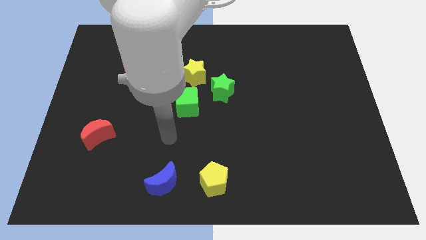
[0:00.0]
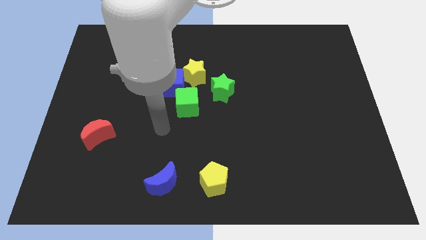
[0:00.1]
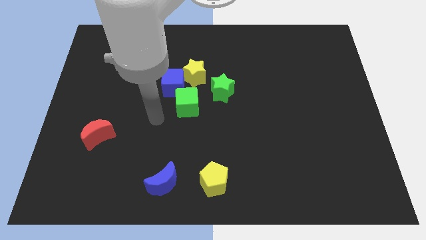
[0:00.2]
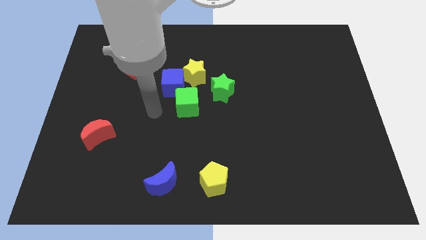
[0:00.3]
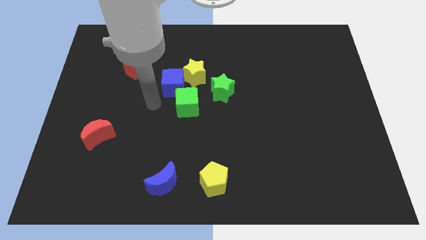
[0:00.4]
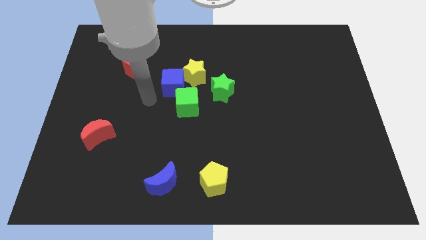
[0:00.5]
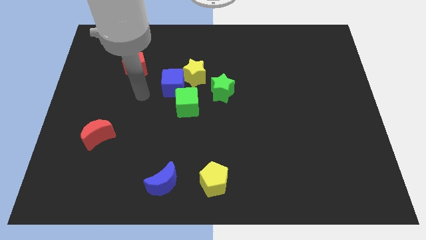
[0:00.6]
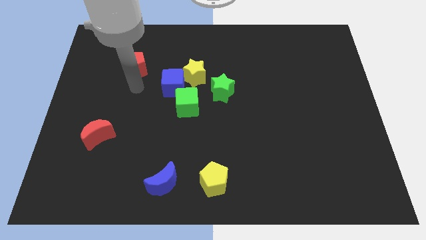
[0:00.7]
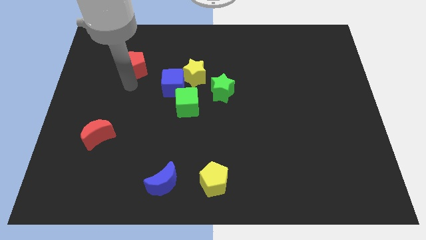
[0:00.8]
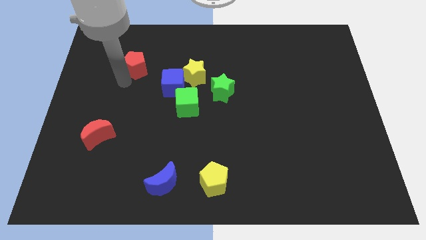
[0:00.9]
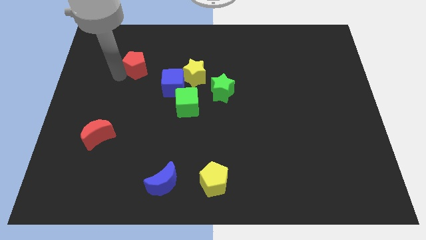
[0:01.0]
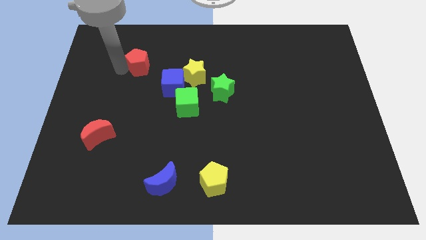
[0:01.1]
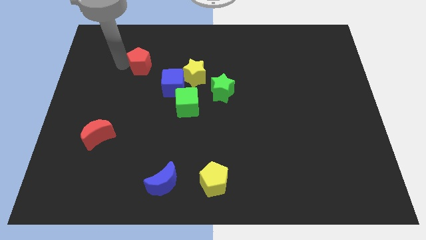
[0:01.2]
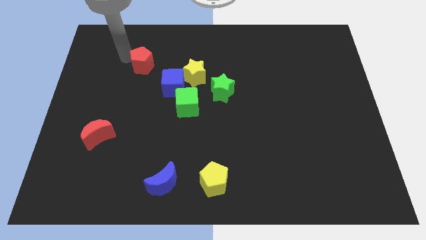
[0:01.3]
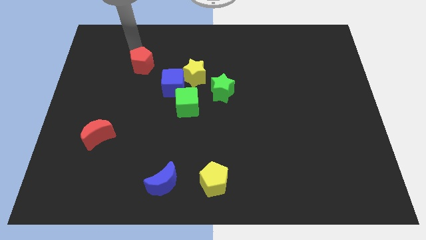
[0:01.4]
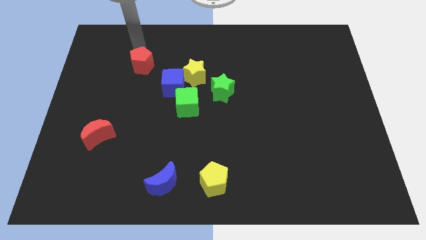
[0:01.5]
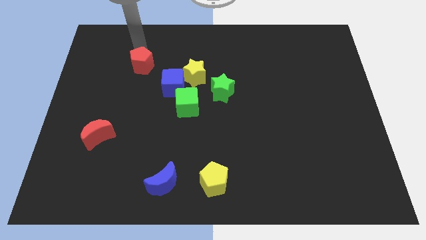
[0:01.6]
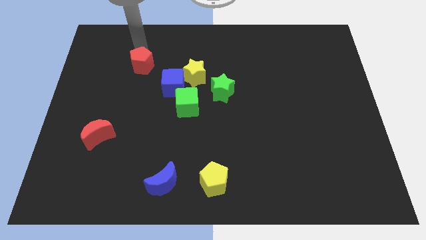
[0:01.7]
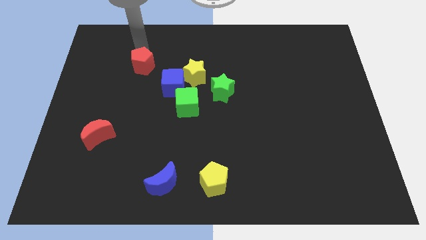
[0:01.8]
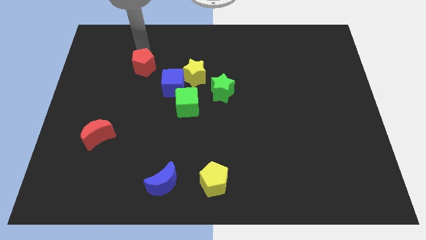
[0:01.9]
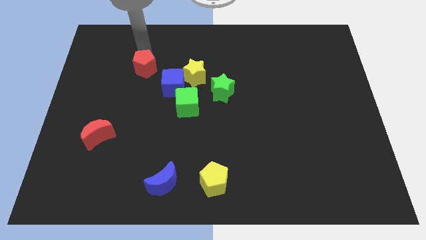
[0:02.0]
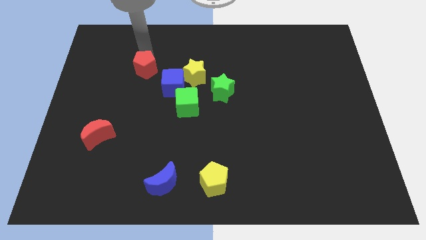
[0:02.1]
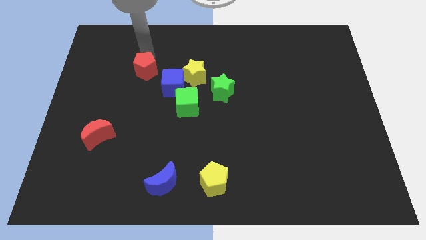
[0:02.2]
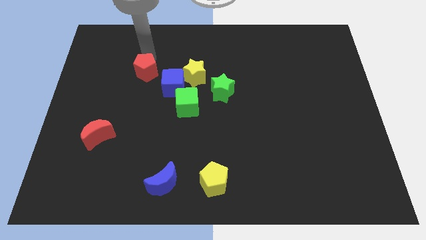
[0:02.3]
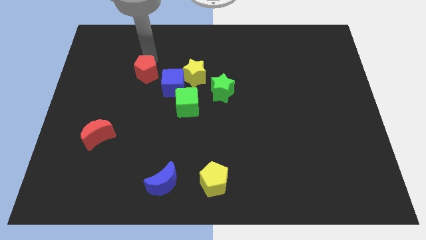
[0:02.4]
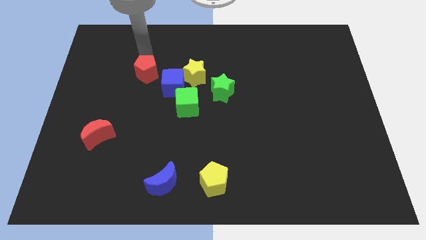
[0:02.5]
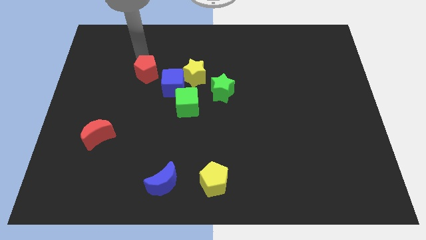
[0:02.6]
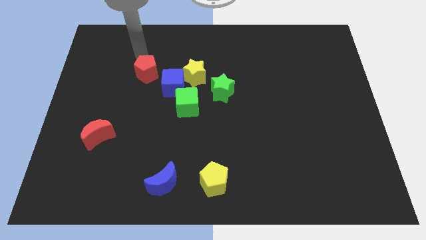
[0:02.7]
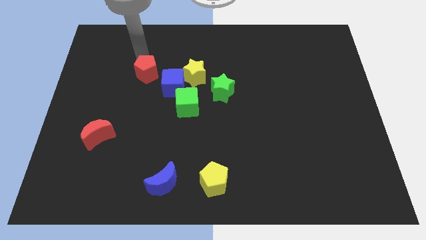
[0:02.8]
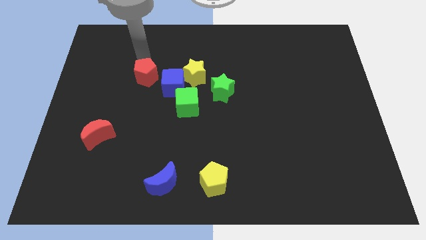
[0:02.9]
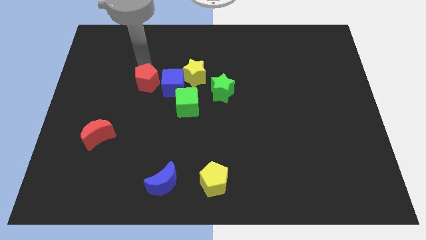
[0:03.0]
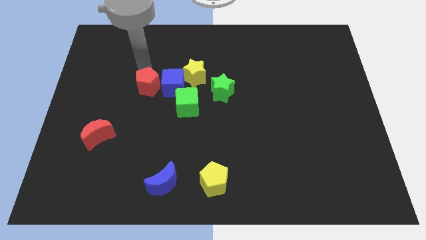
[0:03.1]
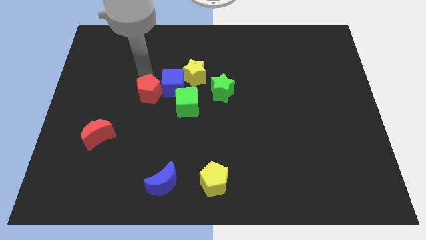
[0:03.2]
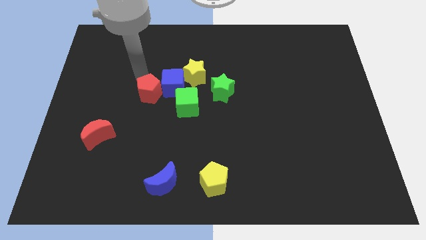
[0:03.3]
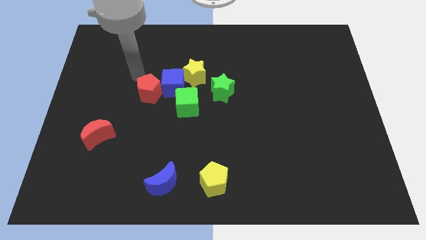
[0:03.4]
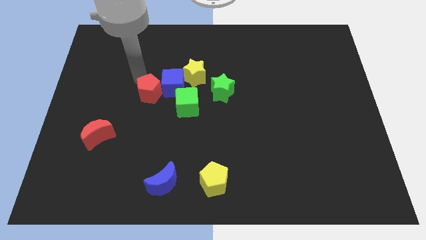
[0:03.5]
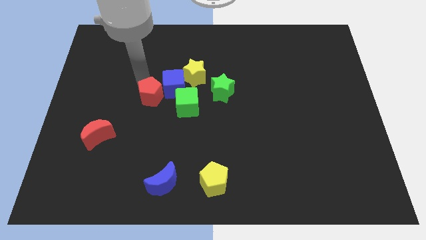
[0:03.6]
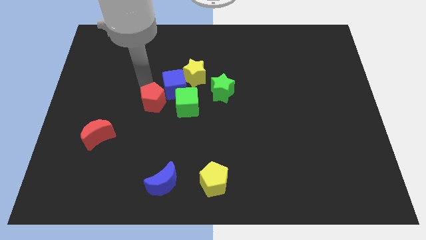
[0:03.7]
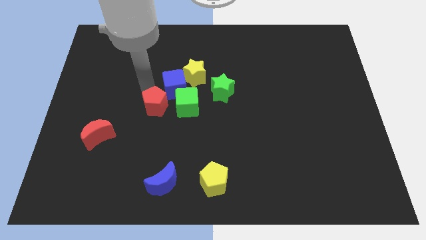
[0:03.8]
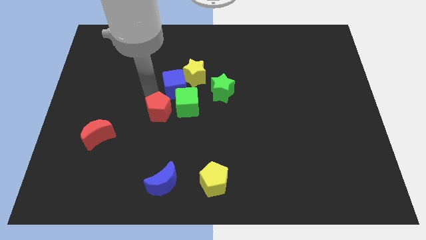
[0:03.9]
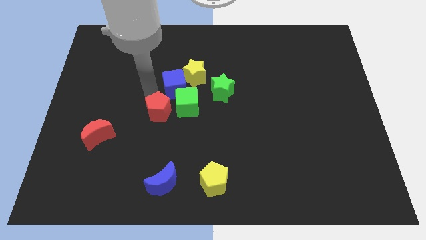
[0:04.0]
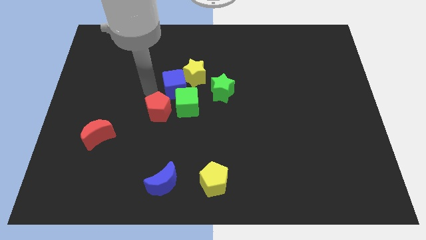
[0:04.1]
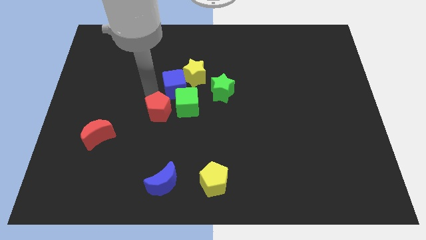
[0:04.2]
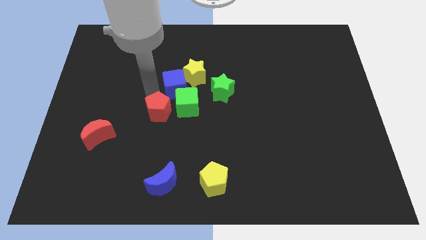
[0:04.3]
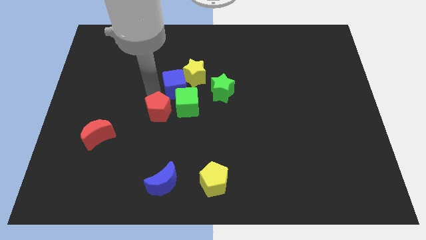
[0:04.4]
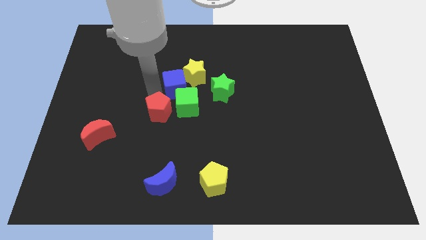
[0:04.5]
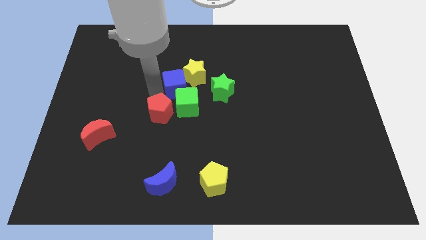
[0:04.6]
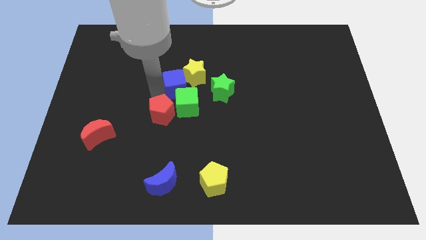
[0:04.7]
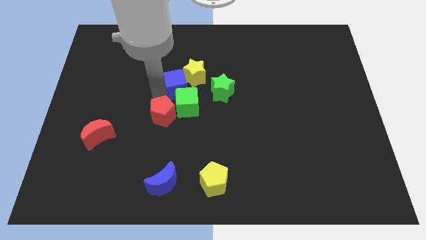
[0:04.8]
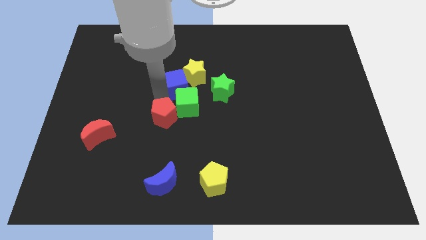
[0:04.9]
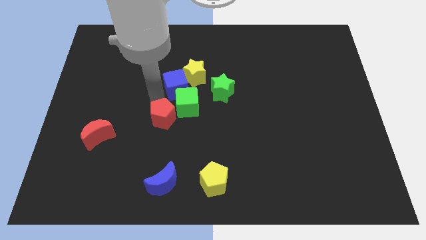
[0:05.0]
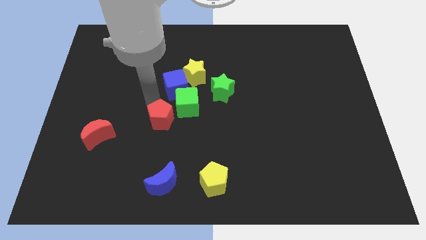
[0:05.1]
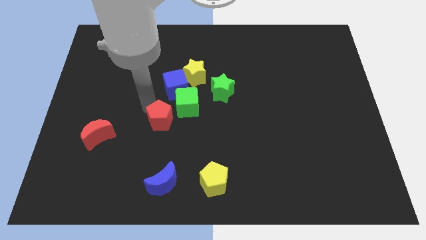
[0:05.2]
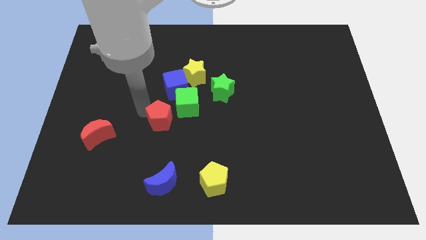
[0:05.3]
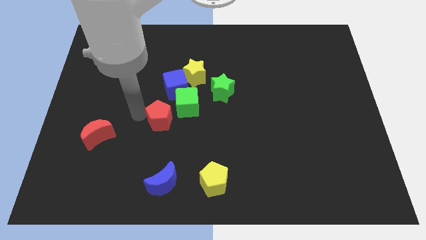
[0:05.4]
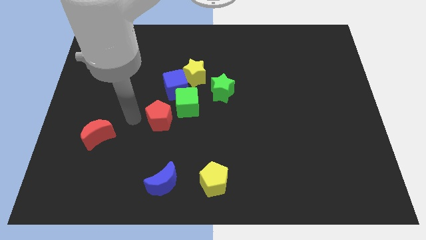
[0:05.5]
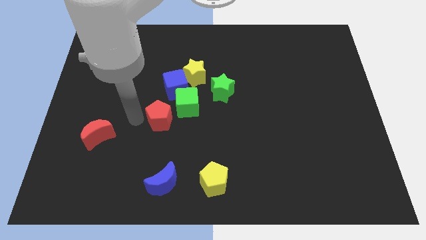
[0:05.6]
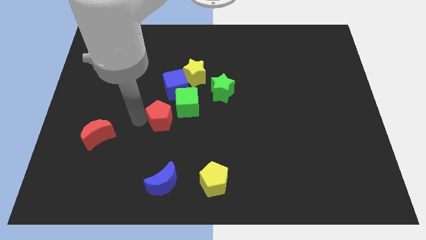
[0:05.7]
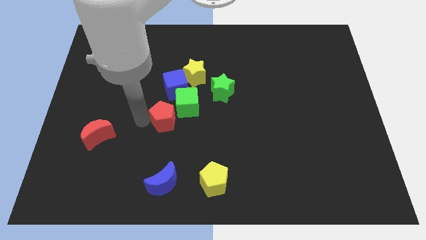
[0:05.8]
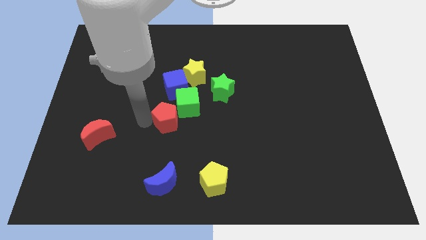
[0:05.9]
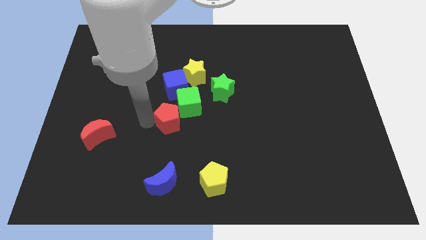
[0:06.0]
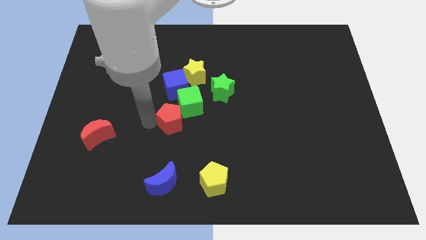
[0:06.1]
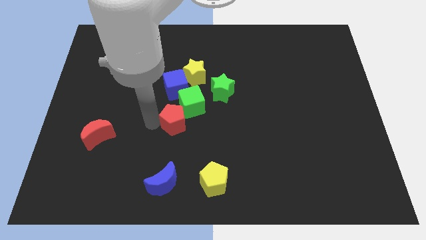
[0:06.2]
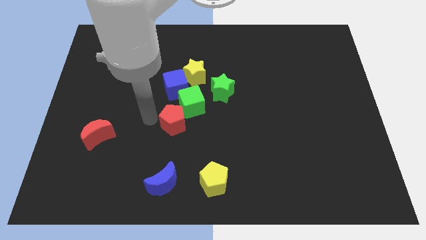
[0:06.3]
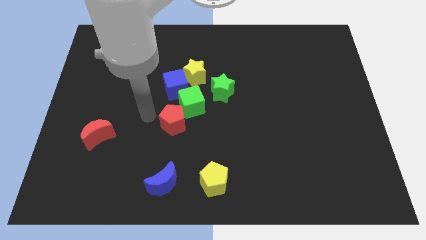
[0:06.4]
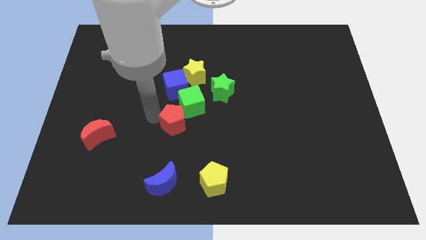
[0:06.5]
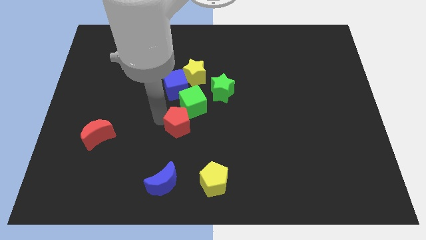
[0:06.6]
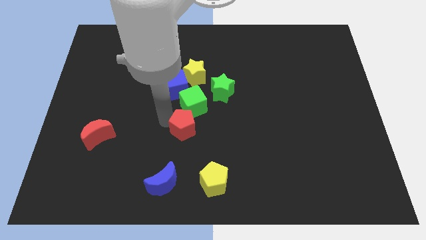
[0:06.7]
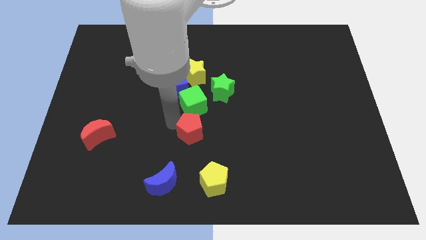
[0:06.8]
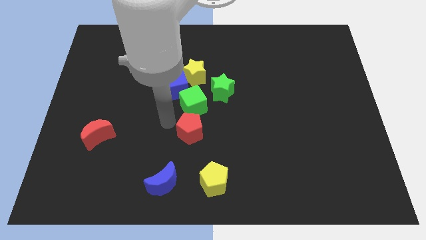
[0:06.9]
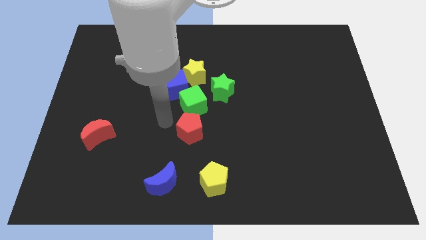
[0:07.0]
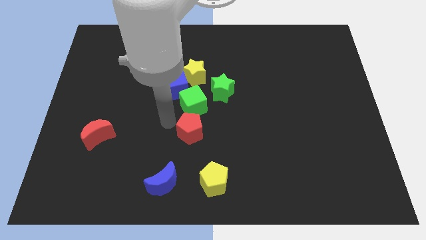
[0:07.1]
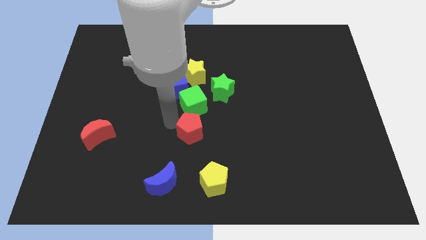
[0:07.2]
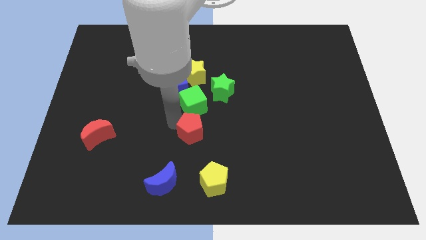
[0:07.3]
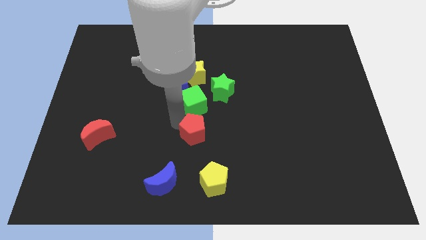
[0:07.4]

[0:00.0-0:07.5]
move the red pentagon to the top of the yellow pentagon

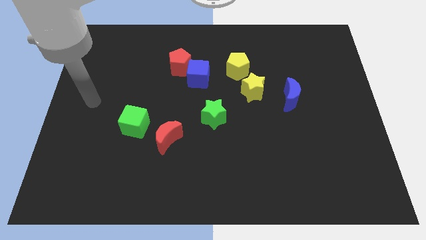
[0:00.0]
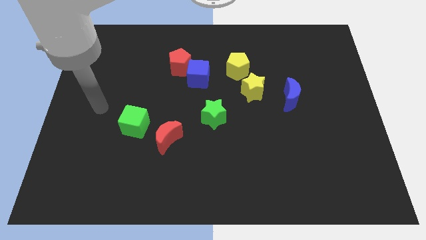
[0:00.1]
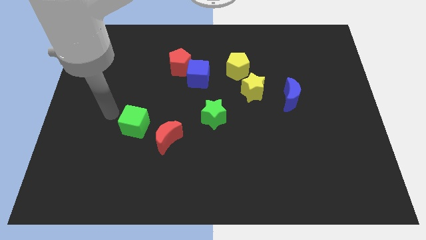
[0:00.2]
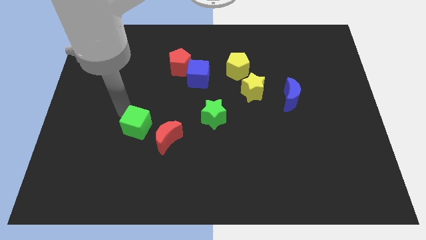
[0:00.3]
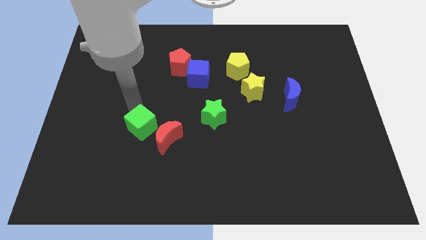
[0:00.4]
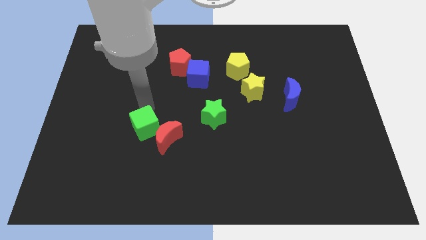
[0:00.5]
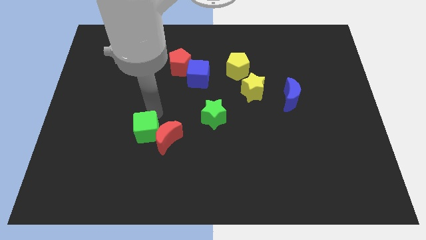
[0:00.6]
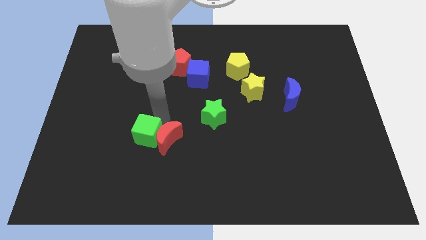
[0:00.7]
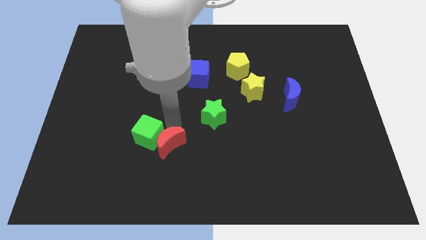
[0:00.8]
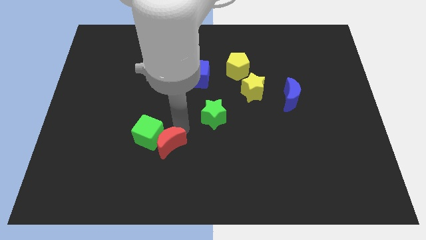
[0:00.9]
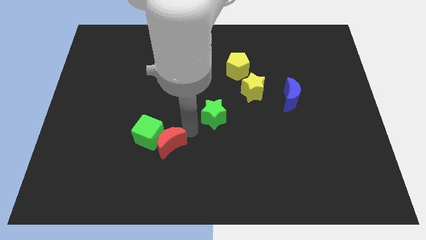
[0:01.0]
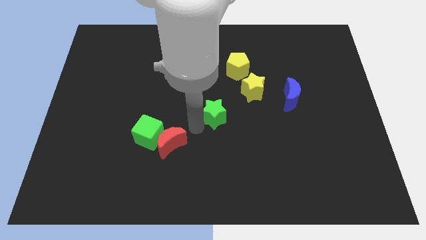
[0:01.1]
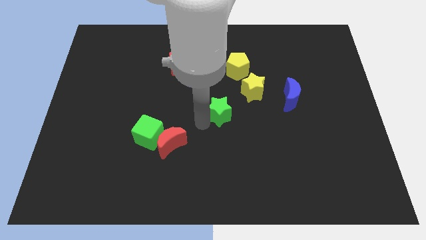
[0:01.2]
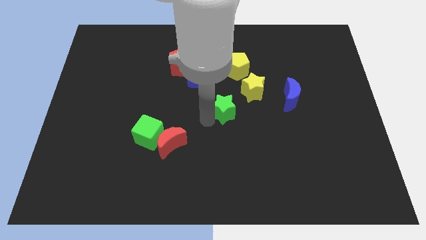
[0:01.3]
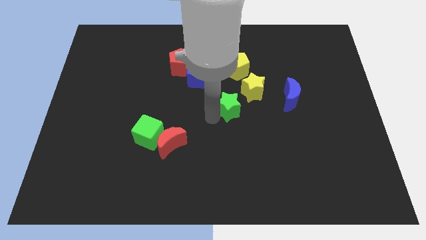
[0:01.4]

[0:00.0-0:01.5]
slide the green star to the left of the blue moon
